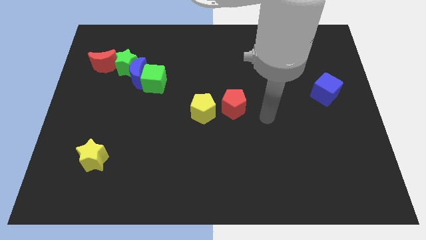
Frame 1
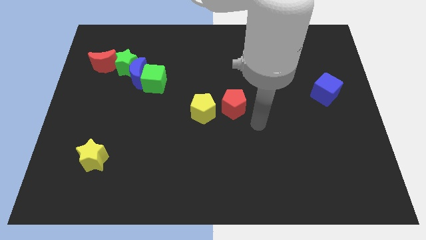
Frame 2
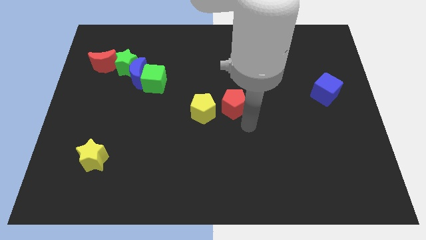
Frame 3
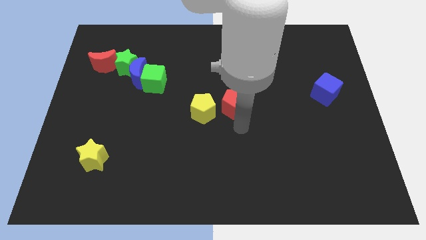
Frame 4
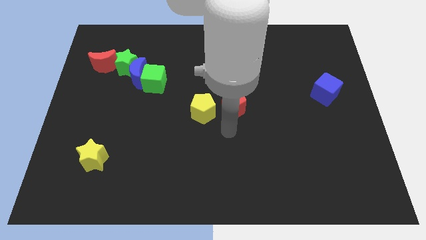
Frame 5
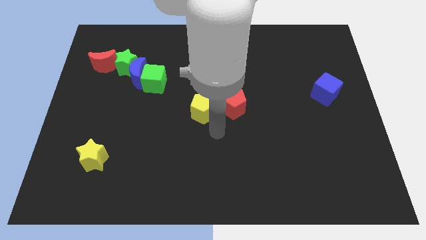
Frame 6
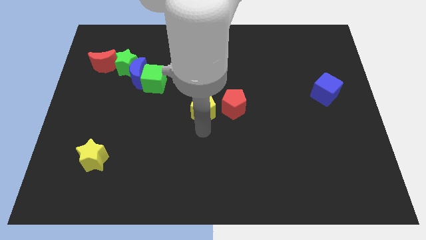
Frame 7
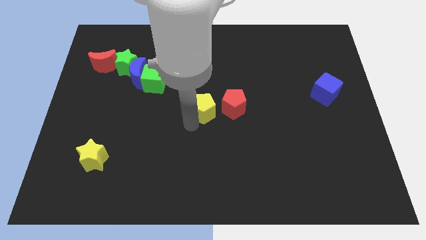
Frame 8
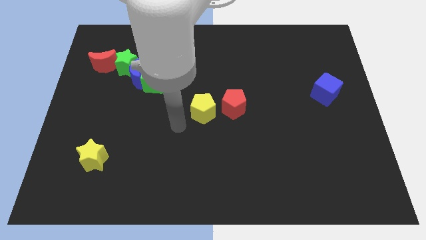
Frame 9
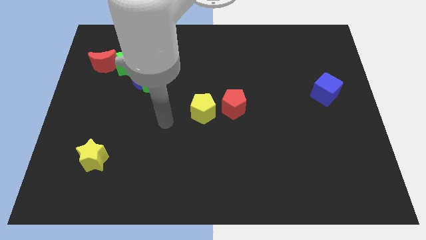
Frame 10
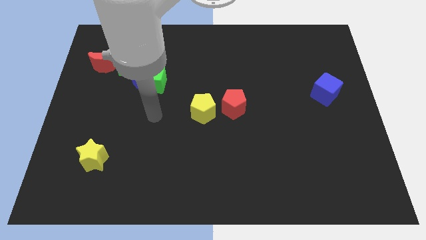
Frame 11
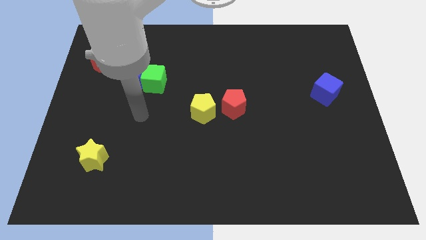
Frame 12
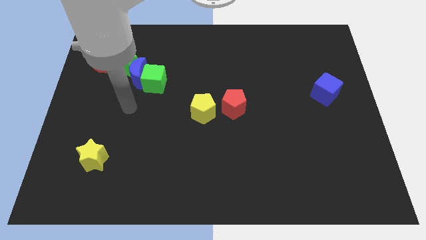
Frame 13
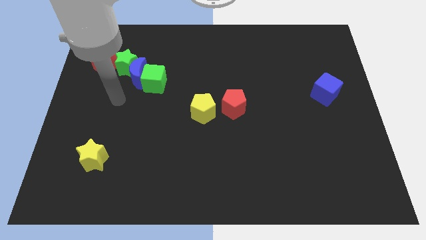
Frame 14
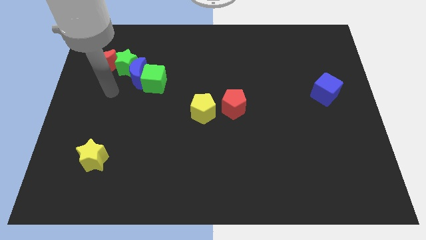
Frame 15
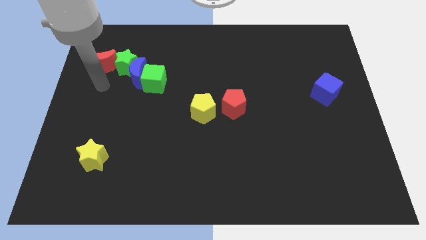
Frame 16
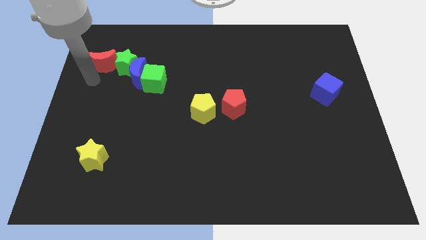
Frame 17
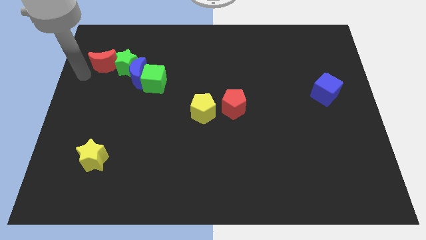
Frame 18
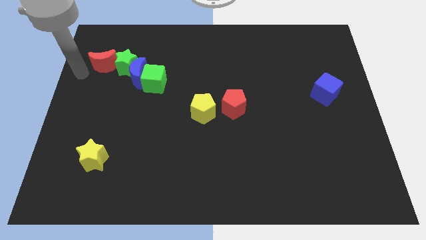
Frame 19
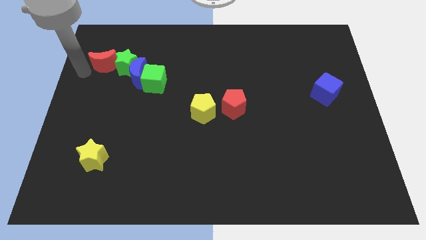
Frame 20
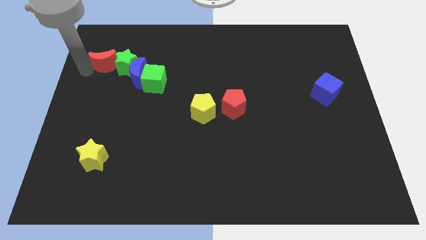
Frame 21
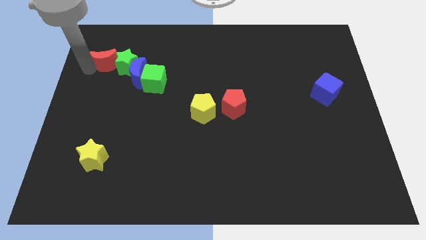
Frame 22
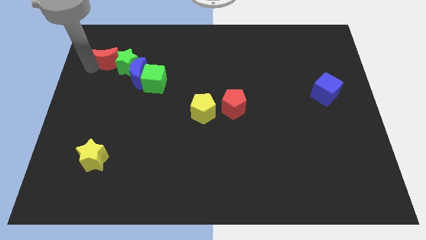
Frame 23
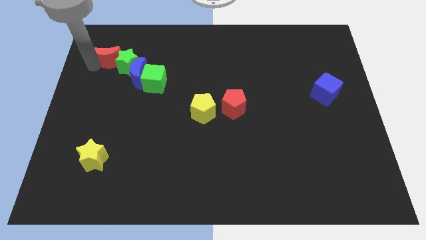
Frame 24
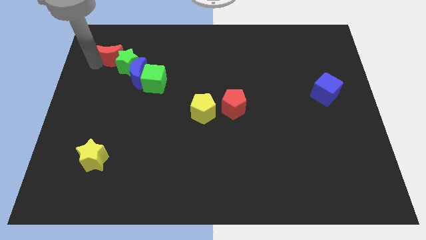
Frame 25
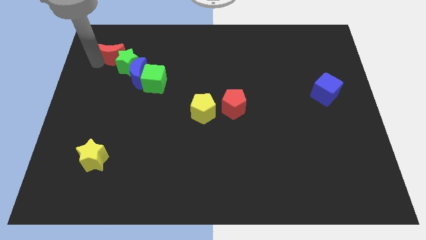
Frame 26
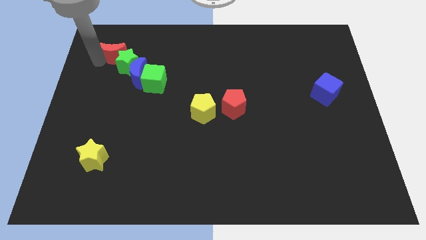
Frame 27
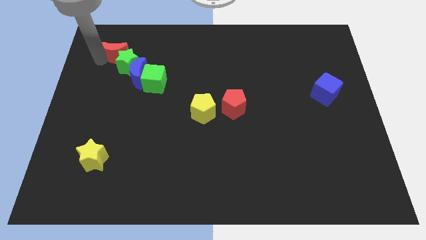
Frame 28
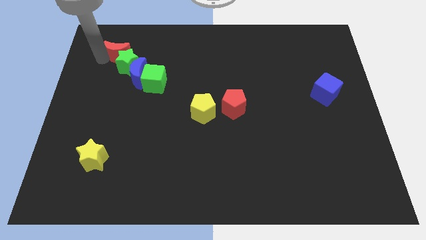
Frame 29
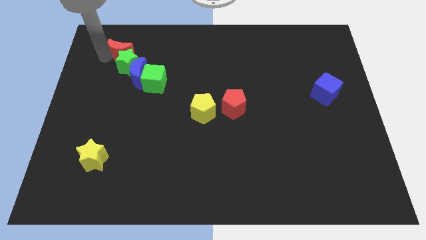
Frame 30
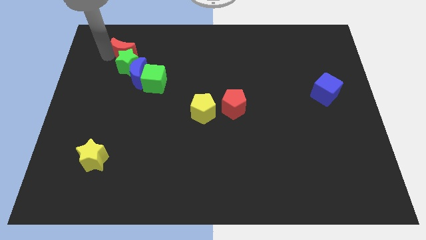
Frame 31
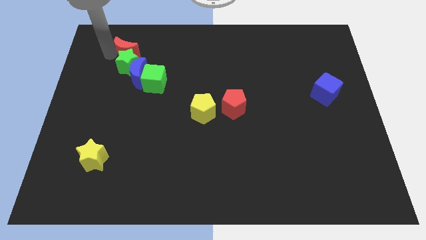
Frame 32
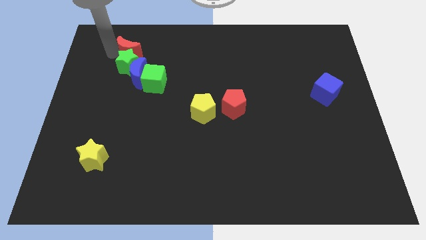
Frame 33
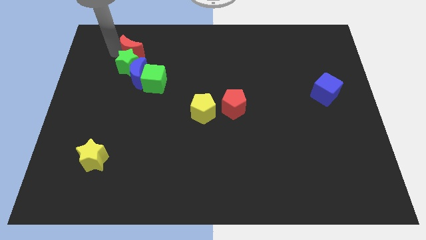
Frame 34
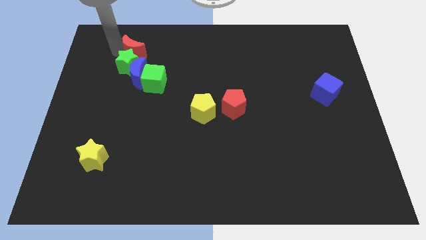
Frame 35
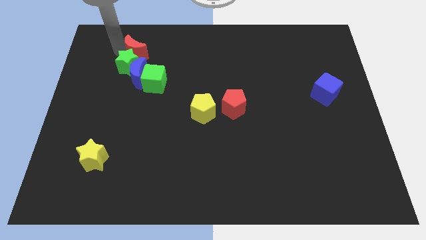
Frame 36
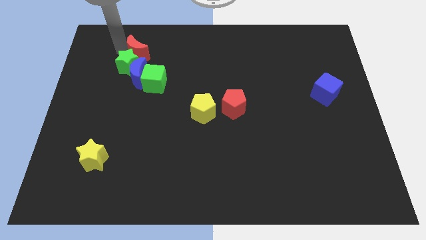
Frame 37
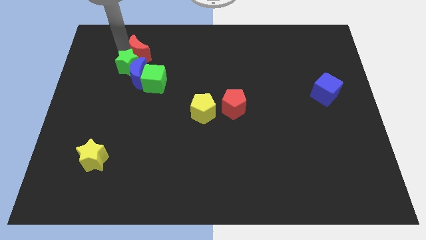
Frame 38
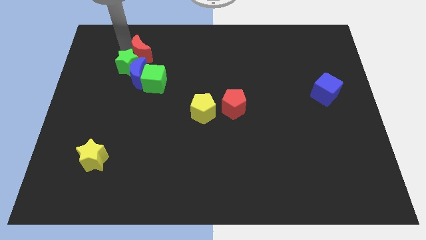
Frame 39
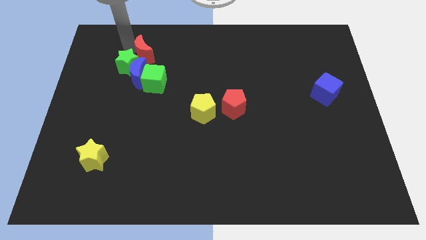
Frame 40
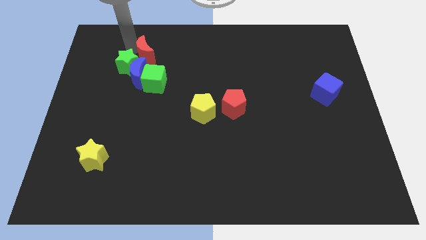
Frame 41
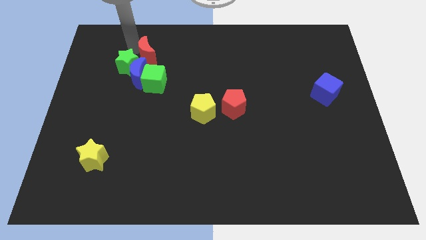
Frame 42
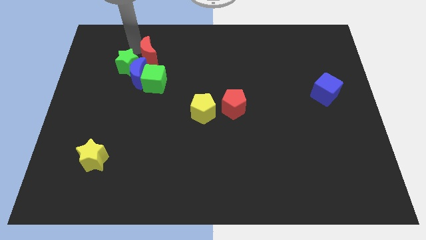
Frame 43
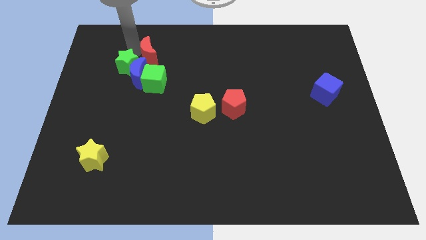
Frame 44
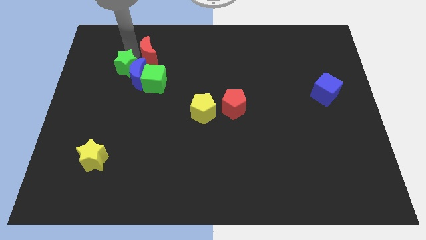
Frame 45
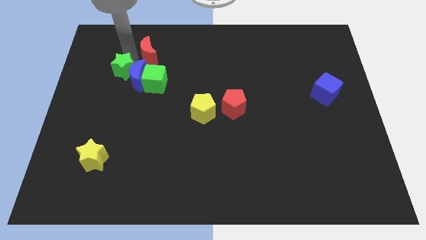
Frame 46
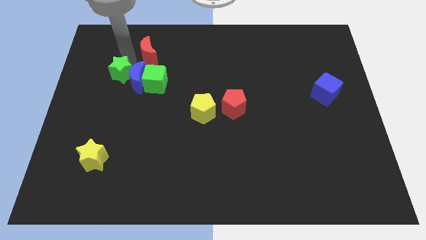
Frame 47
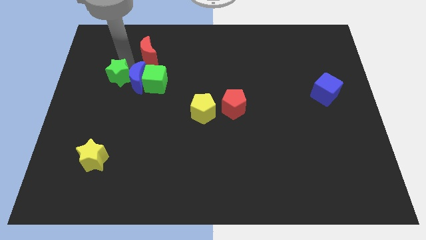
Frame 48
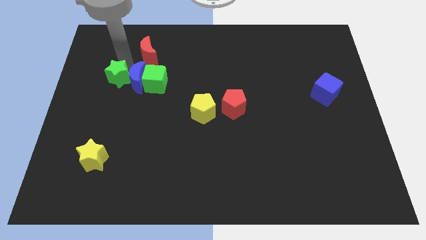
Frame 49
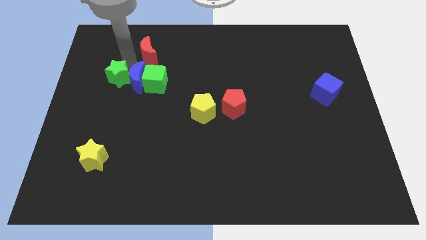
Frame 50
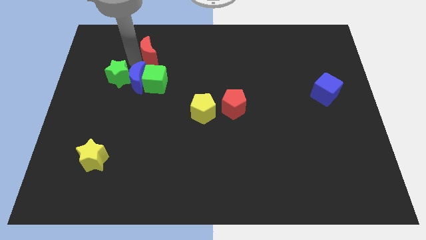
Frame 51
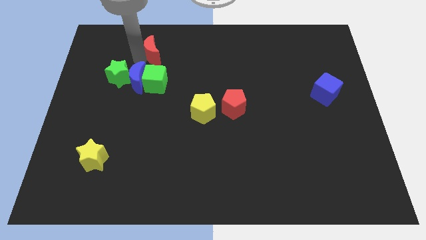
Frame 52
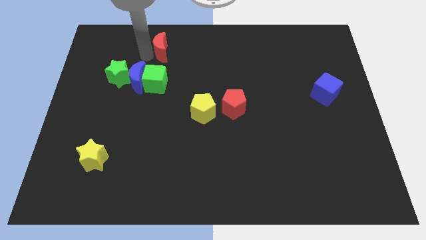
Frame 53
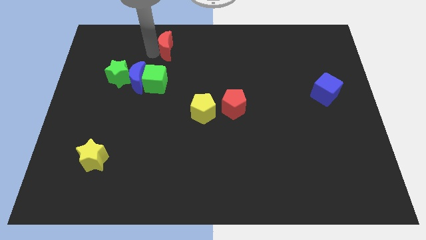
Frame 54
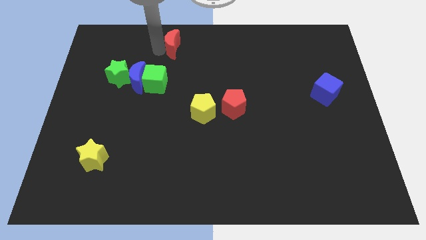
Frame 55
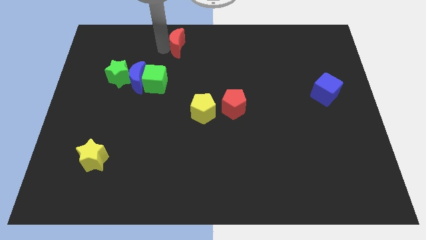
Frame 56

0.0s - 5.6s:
push the red moon to the towards your base

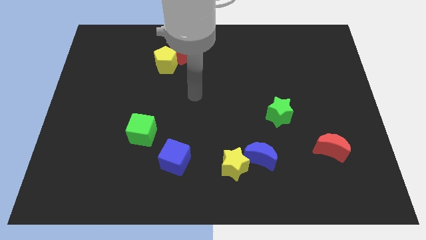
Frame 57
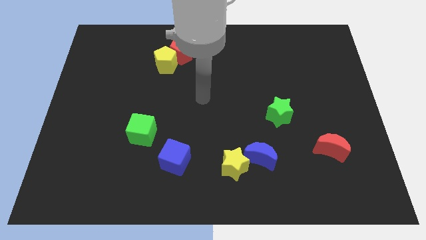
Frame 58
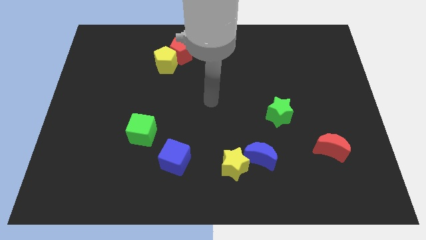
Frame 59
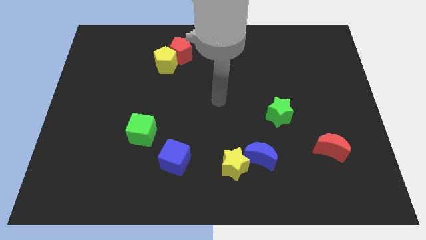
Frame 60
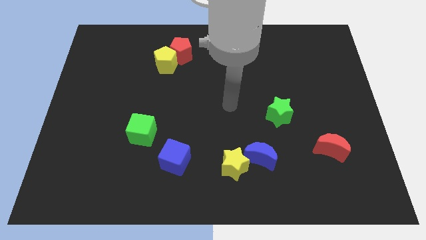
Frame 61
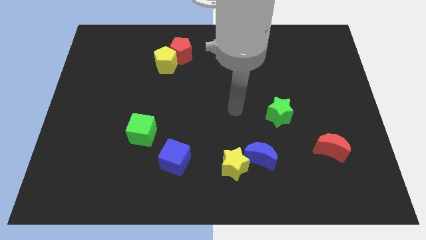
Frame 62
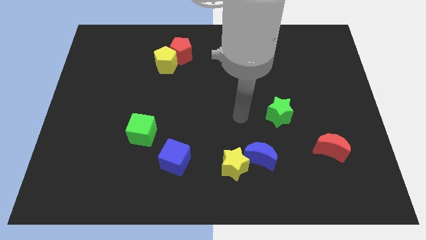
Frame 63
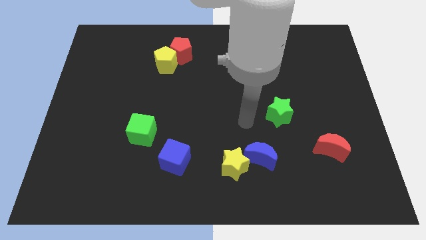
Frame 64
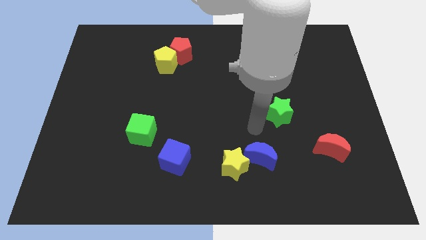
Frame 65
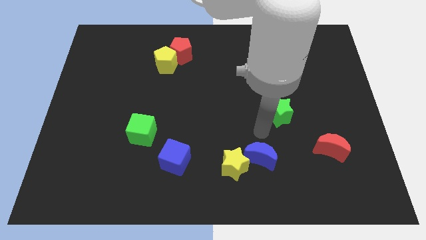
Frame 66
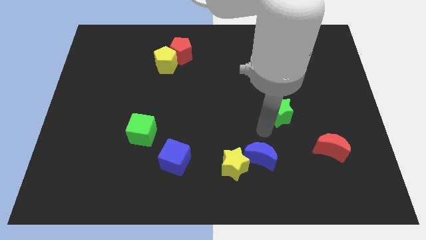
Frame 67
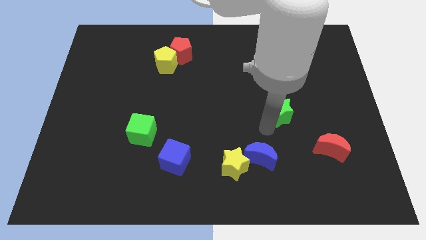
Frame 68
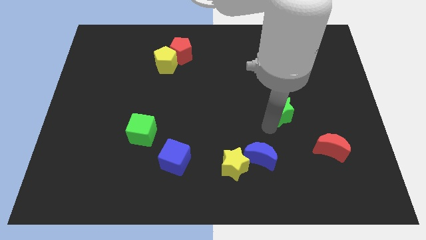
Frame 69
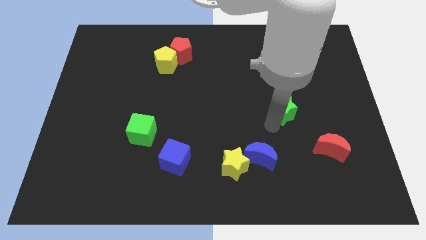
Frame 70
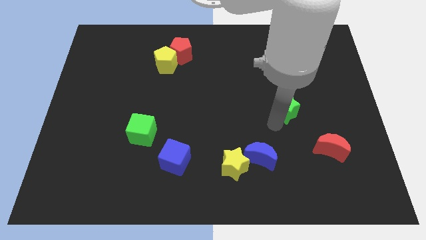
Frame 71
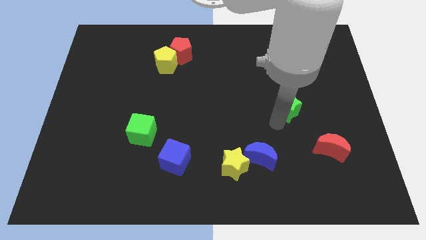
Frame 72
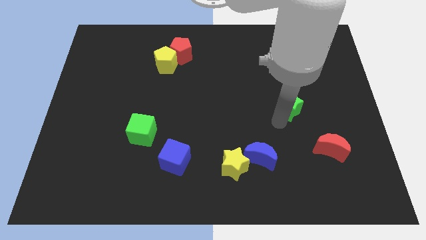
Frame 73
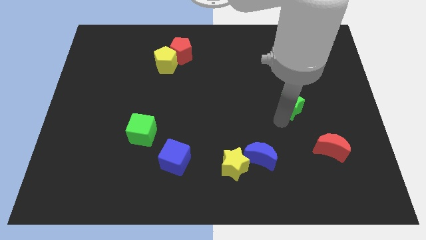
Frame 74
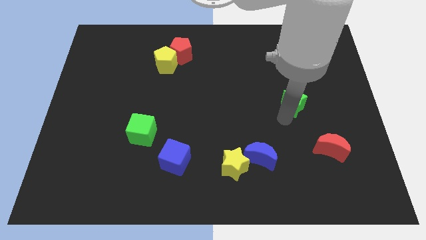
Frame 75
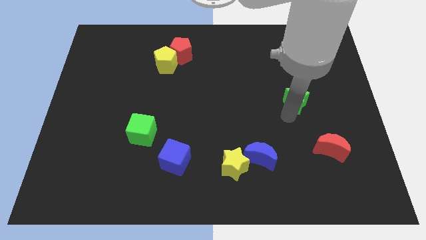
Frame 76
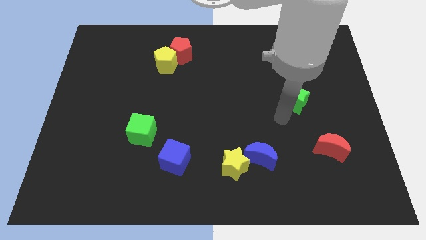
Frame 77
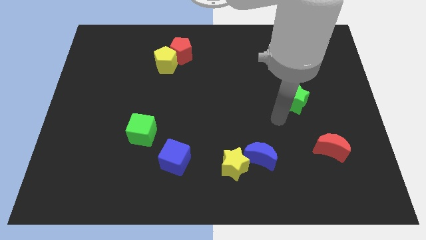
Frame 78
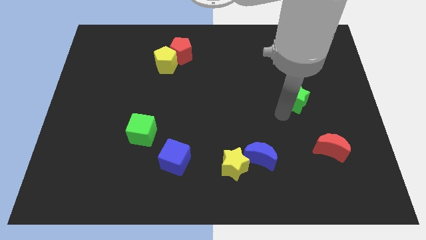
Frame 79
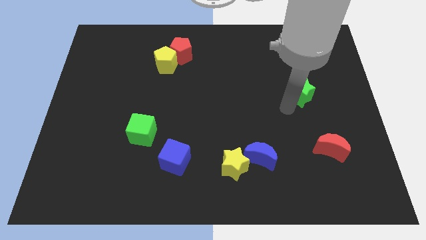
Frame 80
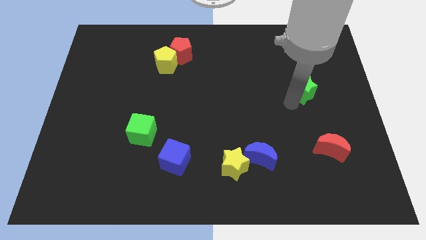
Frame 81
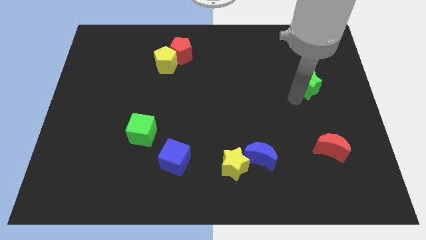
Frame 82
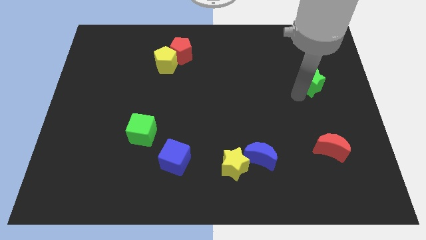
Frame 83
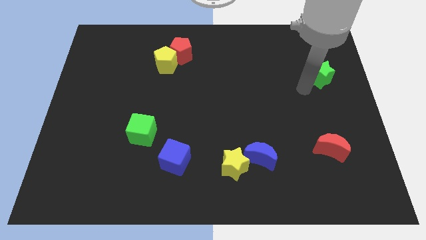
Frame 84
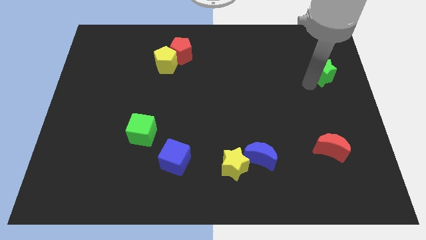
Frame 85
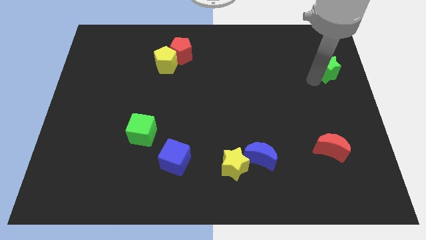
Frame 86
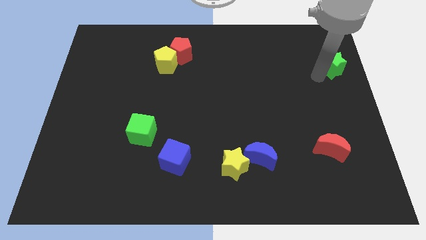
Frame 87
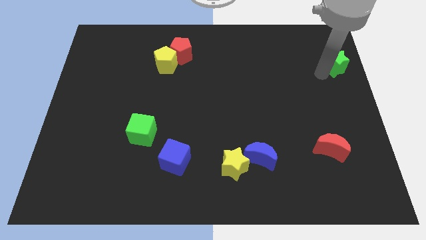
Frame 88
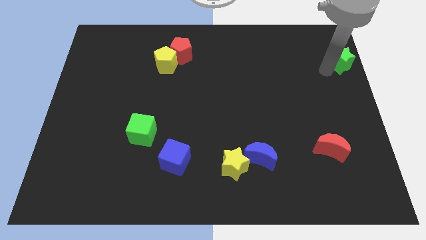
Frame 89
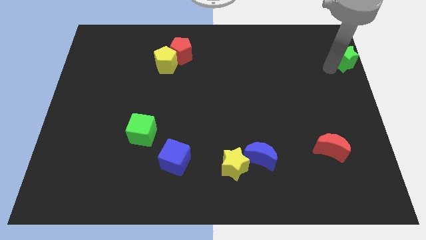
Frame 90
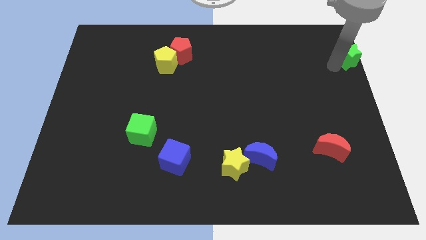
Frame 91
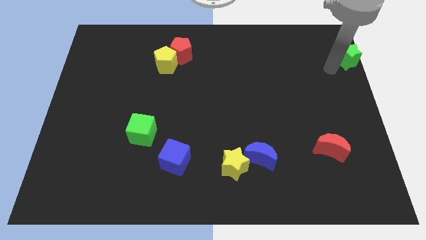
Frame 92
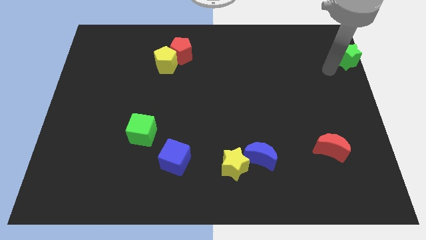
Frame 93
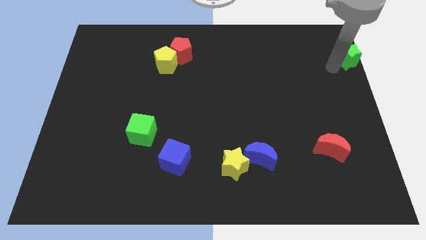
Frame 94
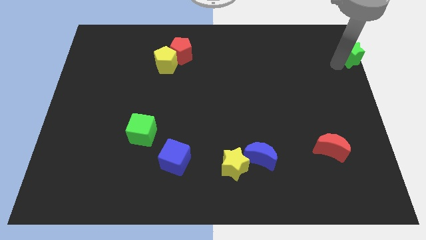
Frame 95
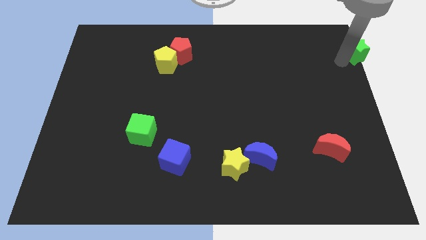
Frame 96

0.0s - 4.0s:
move the green star to the top right of the board
